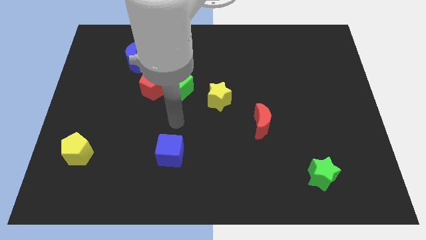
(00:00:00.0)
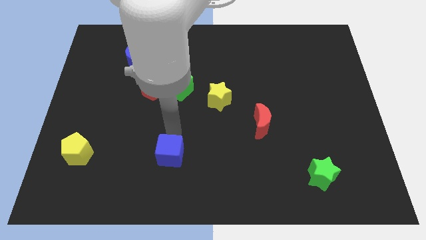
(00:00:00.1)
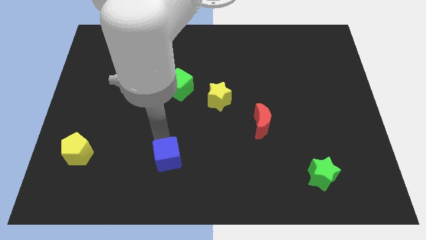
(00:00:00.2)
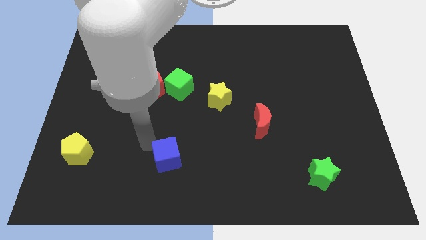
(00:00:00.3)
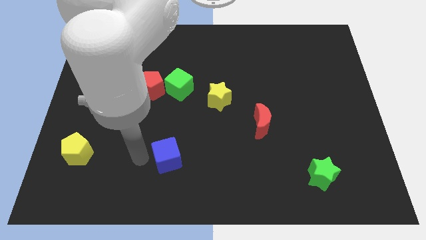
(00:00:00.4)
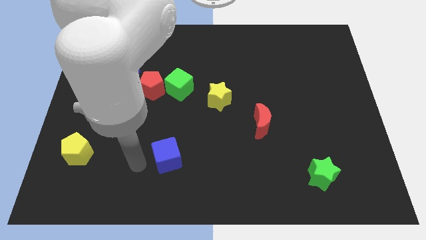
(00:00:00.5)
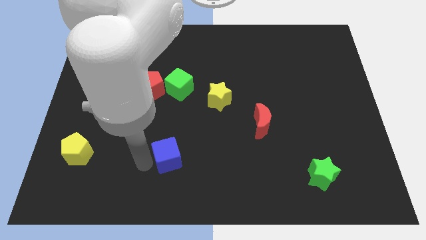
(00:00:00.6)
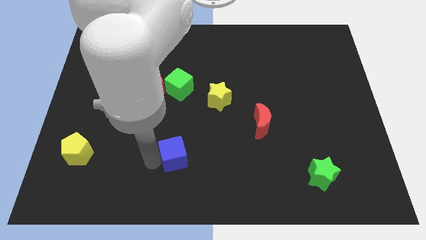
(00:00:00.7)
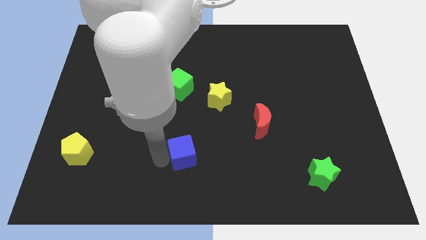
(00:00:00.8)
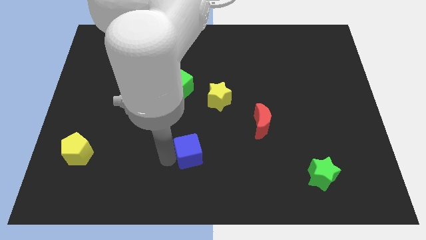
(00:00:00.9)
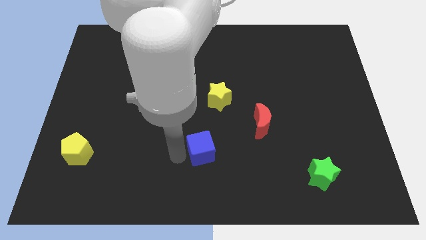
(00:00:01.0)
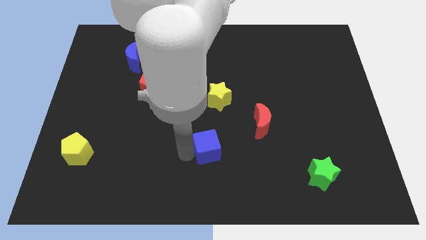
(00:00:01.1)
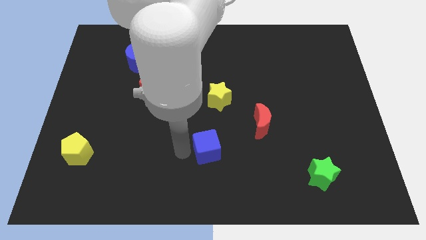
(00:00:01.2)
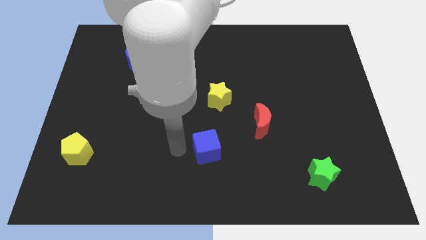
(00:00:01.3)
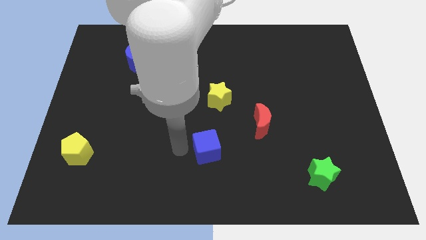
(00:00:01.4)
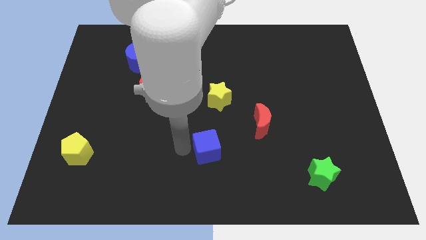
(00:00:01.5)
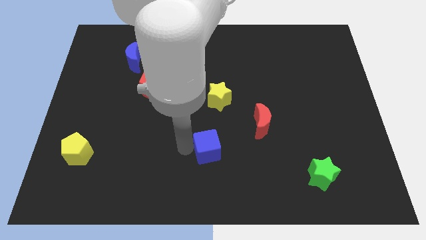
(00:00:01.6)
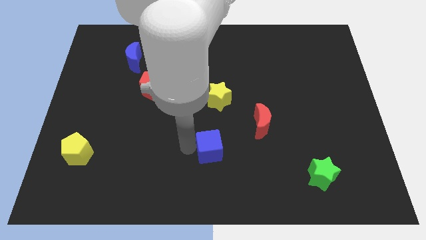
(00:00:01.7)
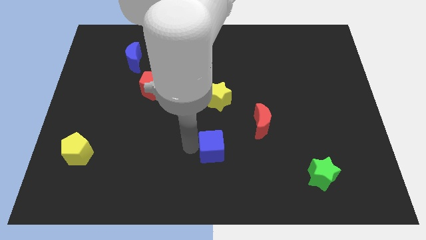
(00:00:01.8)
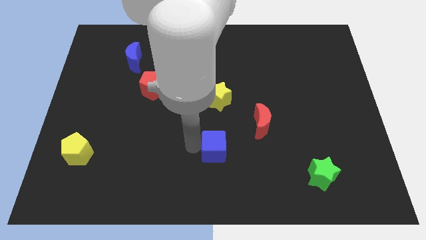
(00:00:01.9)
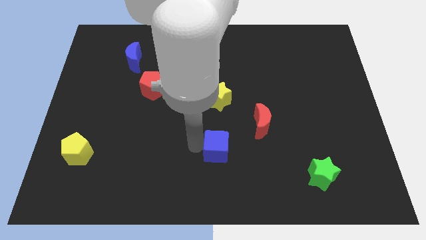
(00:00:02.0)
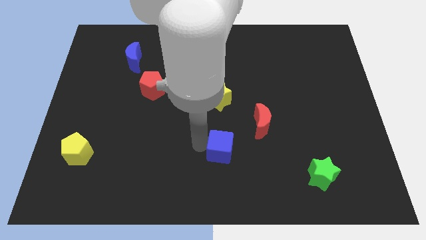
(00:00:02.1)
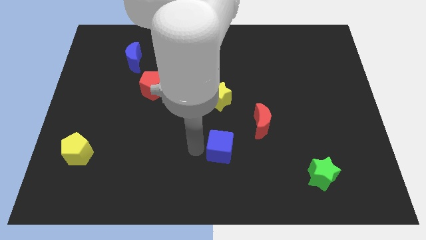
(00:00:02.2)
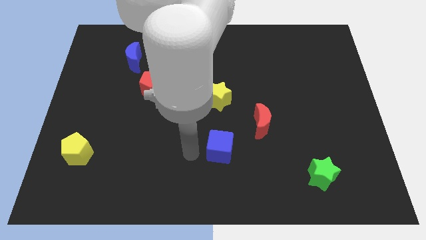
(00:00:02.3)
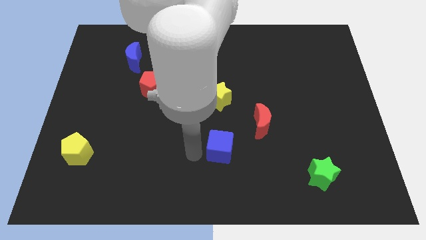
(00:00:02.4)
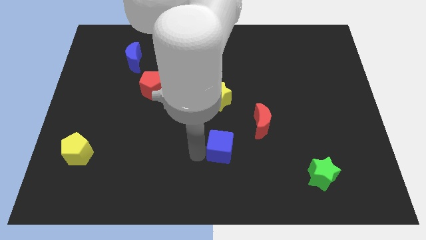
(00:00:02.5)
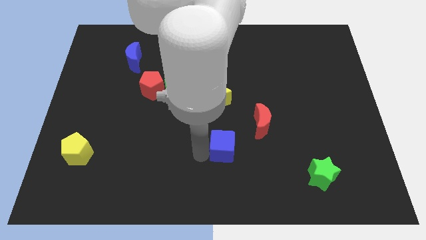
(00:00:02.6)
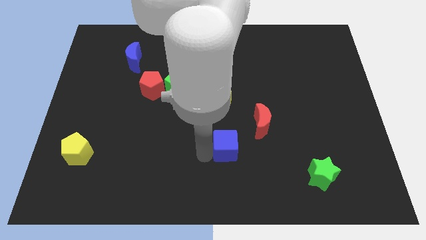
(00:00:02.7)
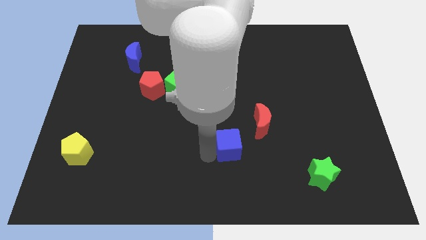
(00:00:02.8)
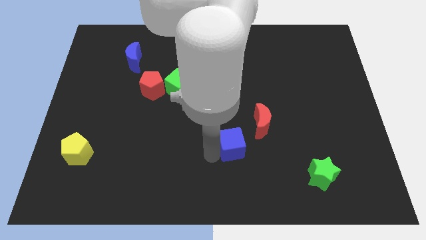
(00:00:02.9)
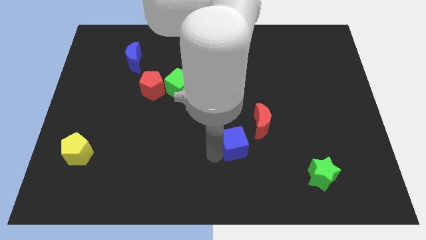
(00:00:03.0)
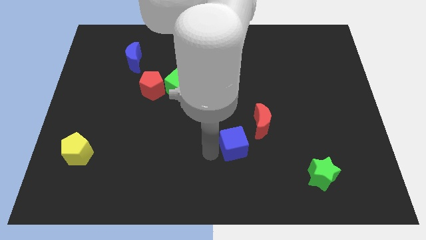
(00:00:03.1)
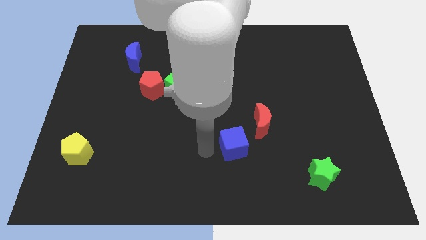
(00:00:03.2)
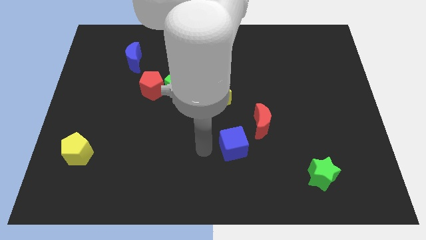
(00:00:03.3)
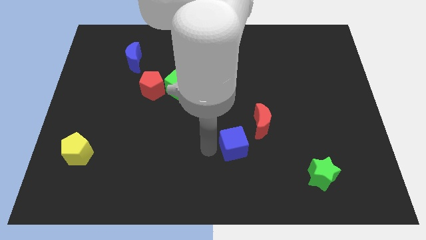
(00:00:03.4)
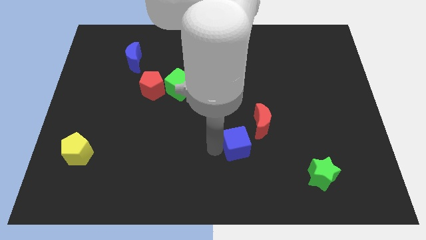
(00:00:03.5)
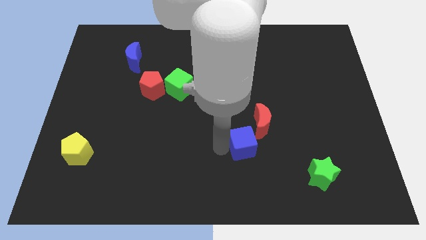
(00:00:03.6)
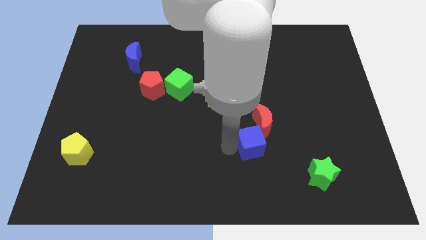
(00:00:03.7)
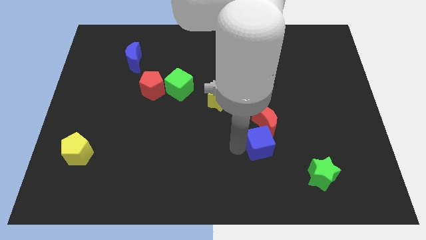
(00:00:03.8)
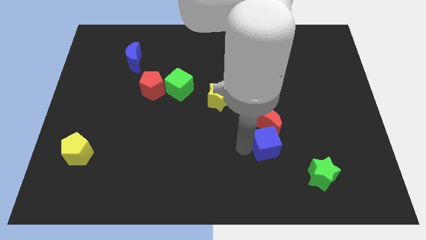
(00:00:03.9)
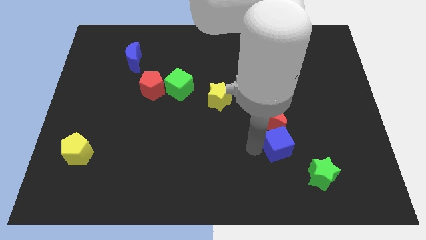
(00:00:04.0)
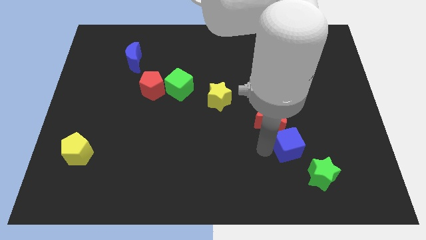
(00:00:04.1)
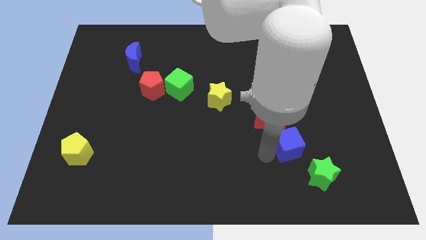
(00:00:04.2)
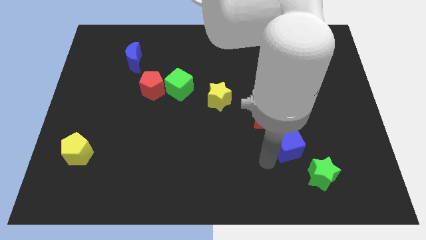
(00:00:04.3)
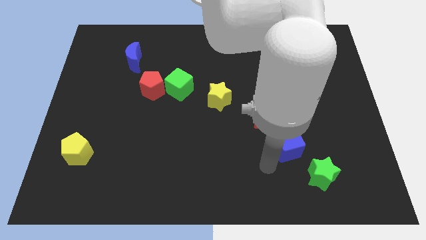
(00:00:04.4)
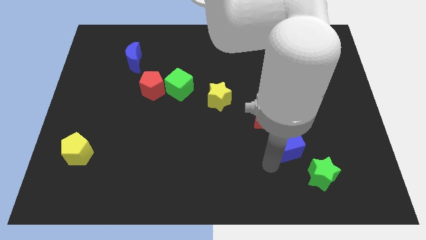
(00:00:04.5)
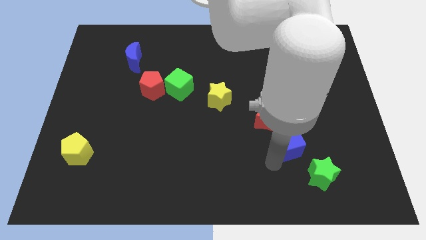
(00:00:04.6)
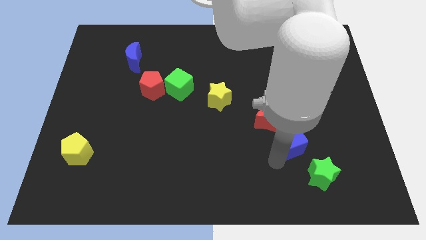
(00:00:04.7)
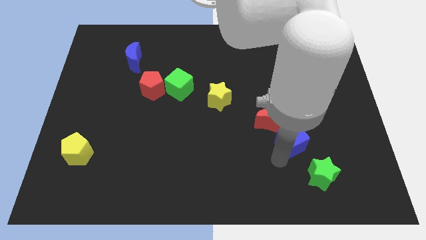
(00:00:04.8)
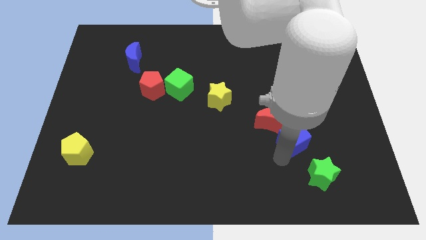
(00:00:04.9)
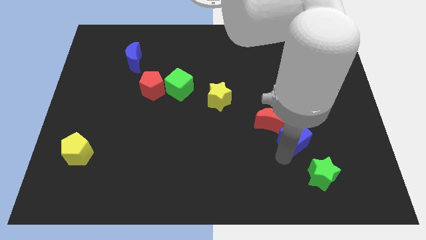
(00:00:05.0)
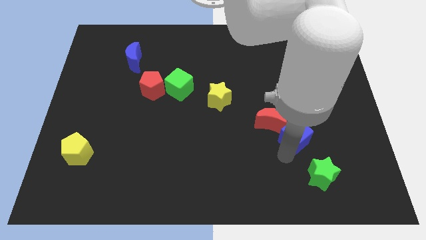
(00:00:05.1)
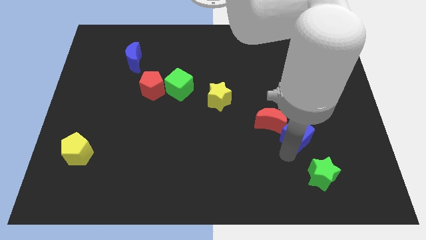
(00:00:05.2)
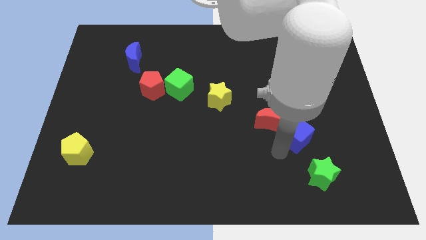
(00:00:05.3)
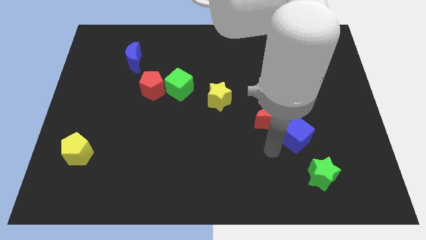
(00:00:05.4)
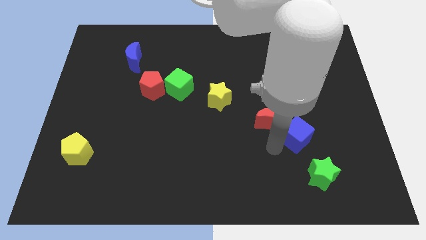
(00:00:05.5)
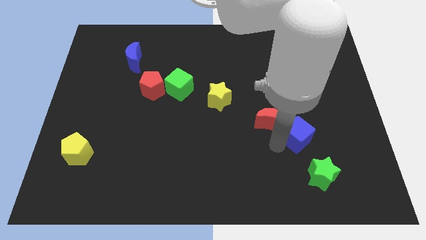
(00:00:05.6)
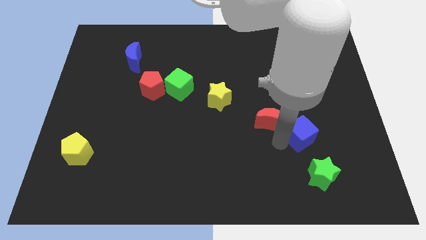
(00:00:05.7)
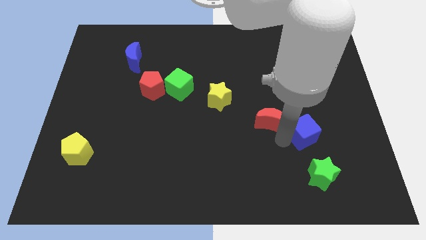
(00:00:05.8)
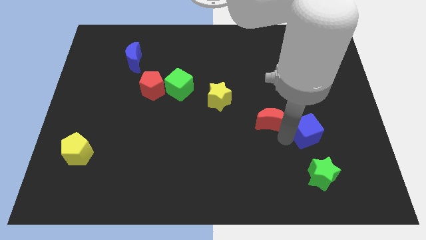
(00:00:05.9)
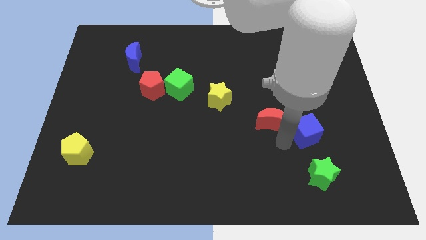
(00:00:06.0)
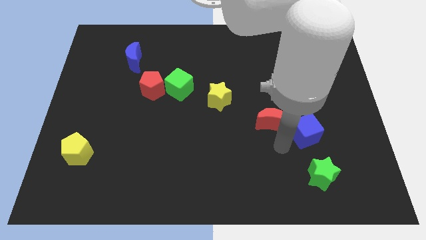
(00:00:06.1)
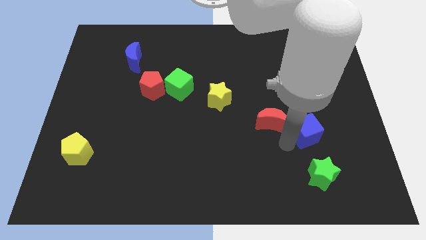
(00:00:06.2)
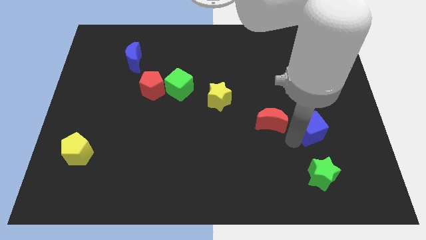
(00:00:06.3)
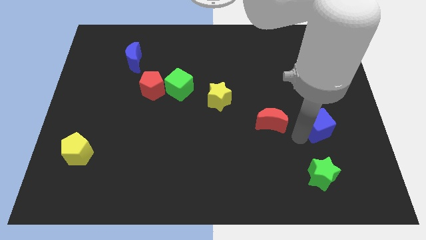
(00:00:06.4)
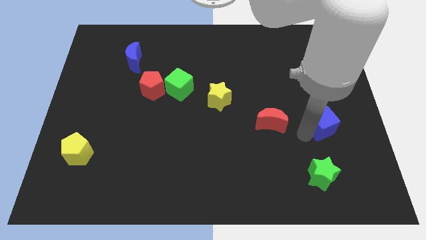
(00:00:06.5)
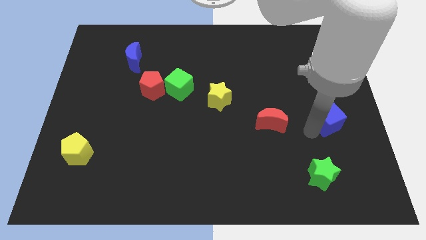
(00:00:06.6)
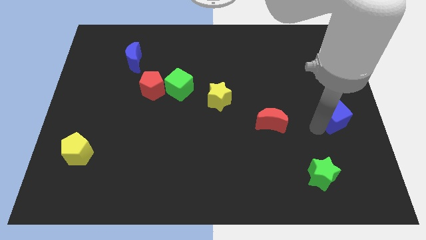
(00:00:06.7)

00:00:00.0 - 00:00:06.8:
move the blue cube to the right side
